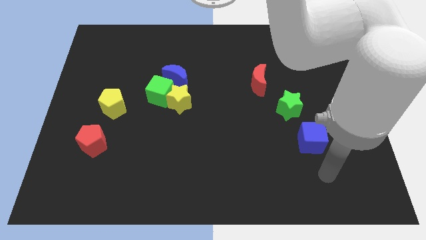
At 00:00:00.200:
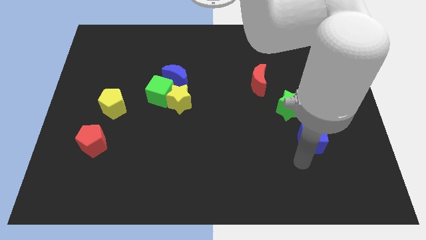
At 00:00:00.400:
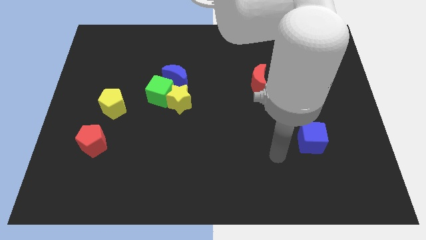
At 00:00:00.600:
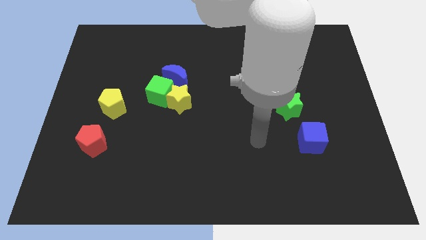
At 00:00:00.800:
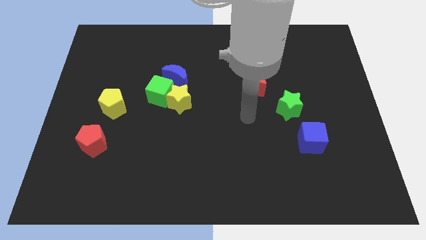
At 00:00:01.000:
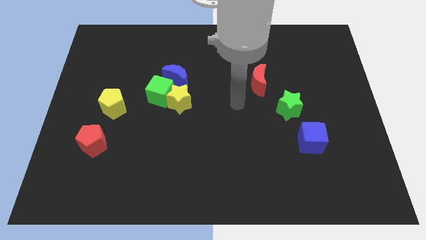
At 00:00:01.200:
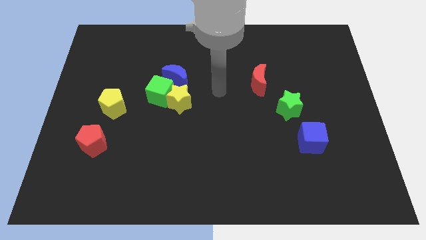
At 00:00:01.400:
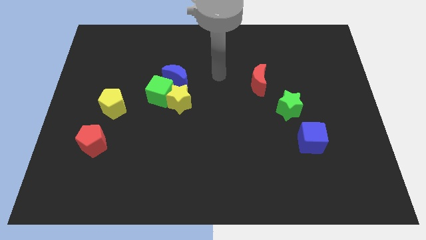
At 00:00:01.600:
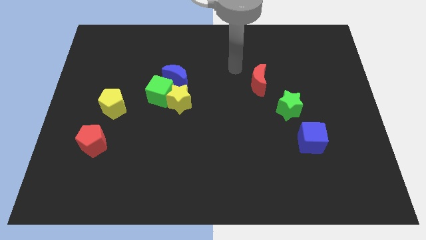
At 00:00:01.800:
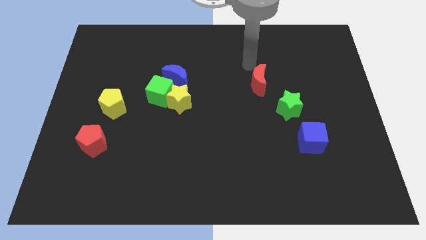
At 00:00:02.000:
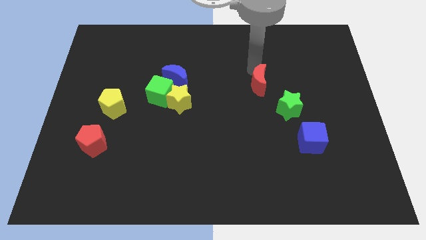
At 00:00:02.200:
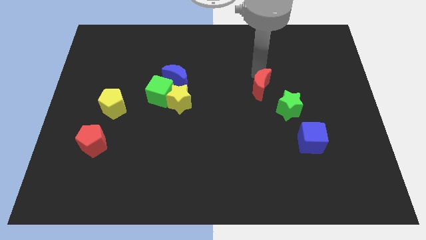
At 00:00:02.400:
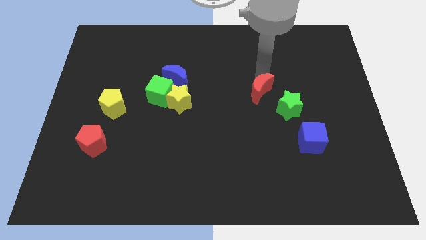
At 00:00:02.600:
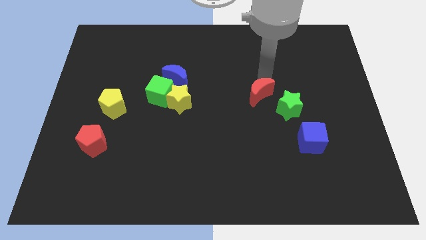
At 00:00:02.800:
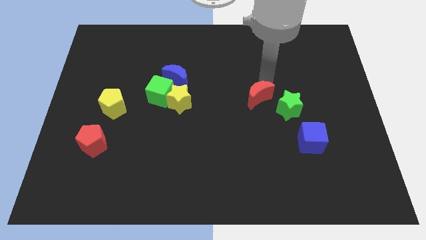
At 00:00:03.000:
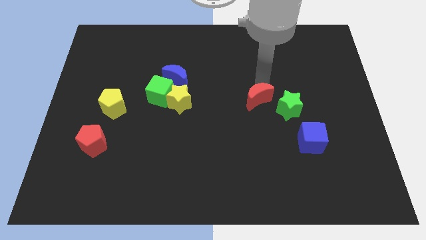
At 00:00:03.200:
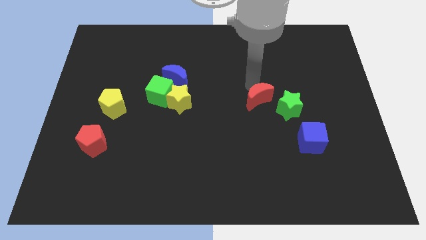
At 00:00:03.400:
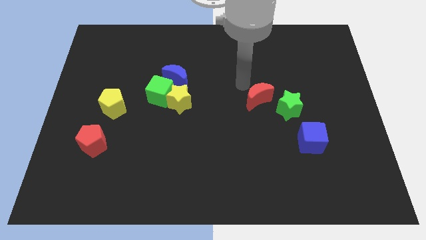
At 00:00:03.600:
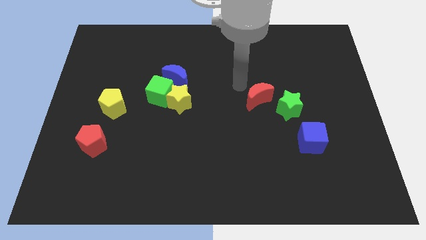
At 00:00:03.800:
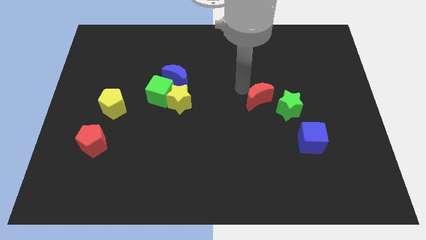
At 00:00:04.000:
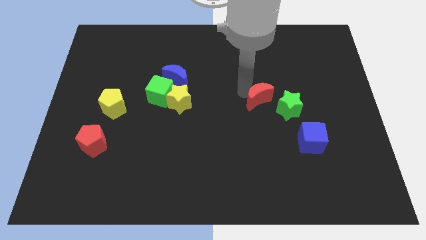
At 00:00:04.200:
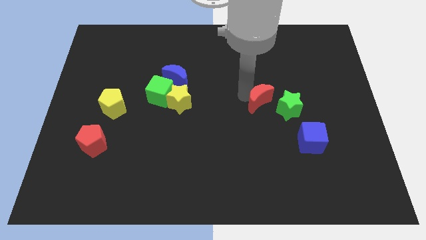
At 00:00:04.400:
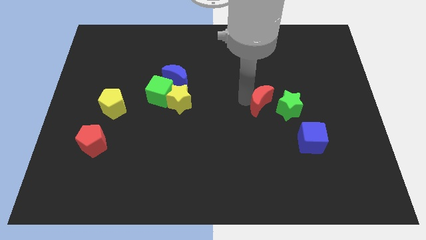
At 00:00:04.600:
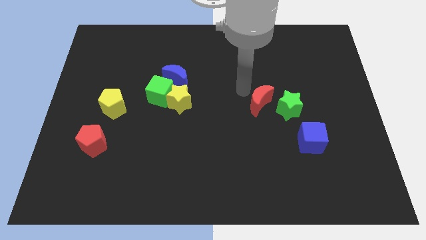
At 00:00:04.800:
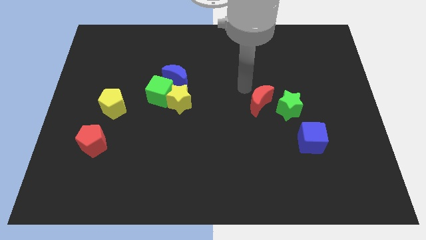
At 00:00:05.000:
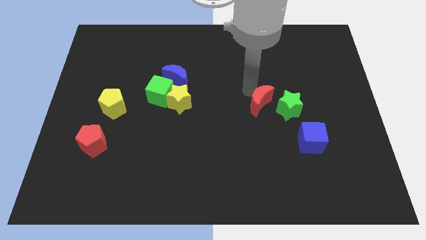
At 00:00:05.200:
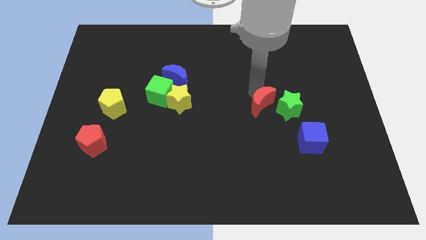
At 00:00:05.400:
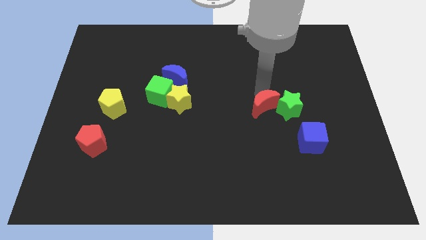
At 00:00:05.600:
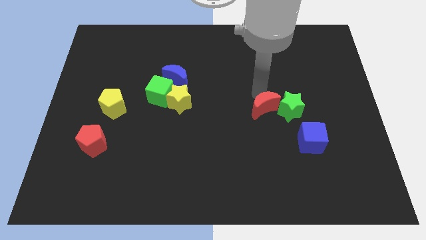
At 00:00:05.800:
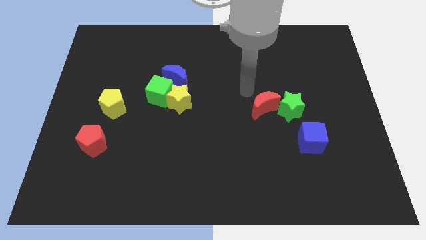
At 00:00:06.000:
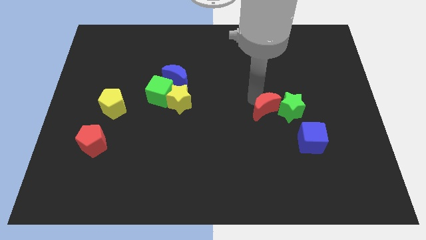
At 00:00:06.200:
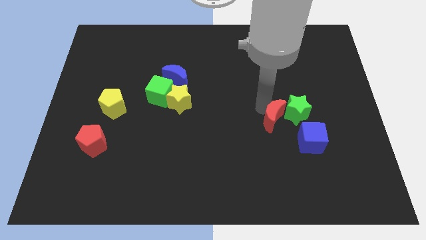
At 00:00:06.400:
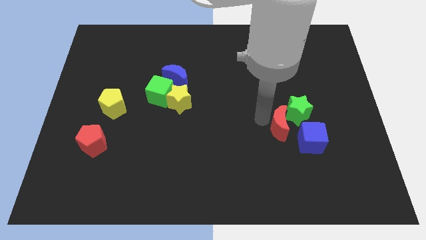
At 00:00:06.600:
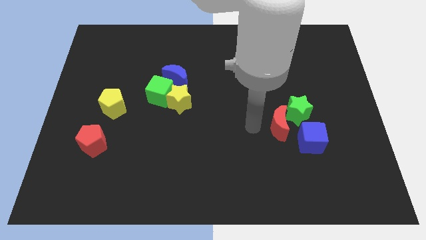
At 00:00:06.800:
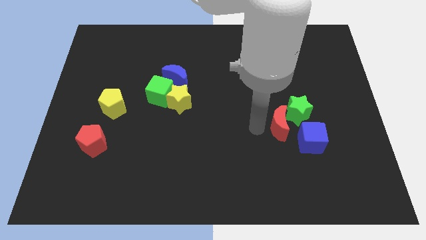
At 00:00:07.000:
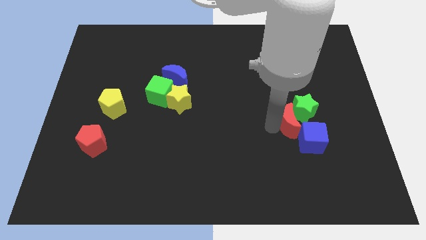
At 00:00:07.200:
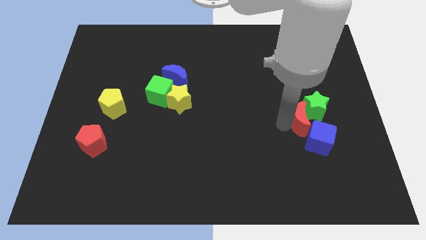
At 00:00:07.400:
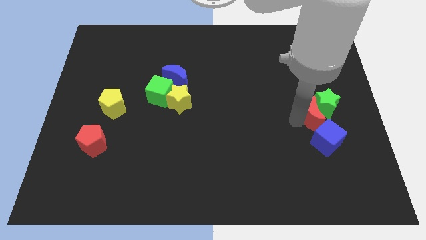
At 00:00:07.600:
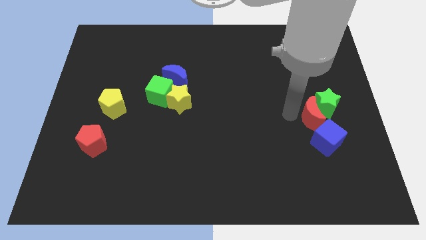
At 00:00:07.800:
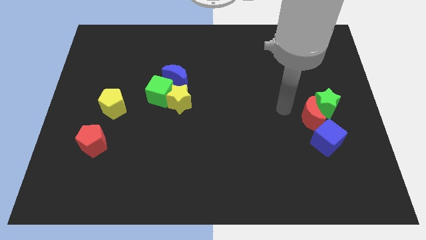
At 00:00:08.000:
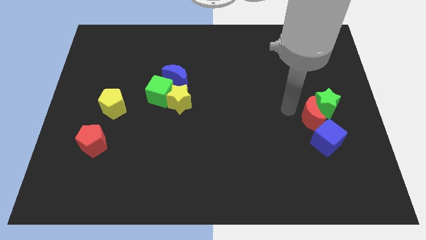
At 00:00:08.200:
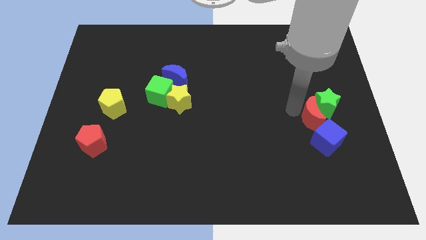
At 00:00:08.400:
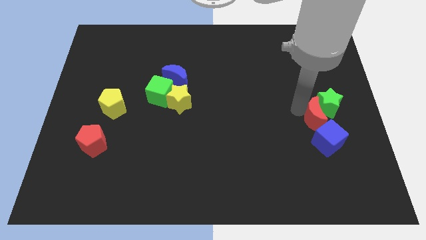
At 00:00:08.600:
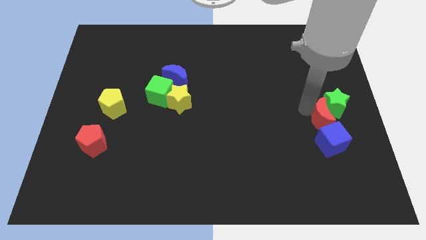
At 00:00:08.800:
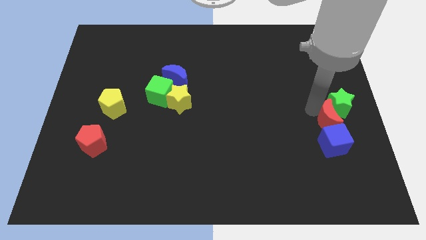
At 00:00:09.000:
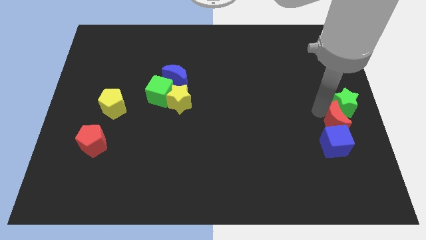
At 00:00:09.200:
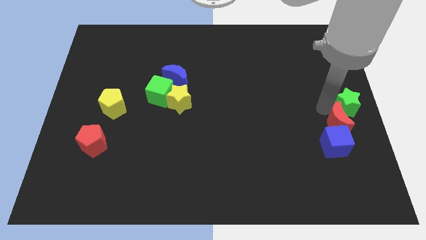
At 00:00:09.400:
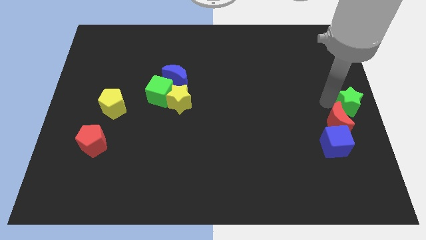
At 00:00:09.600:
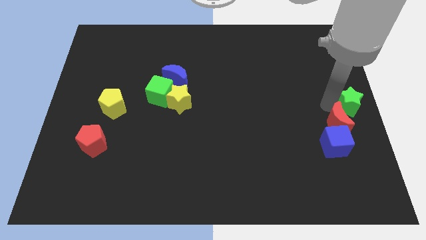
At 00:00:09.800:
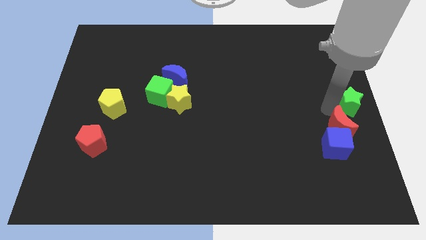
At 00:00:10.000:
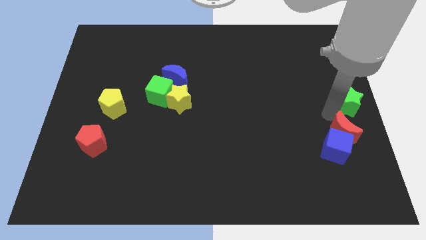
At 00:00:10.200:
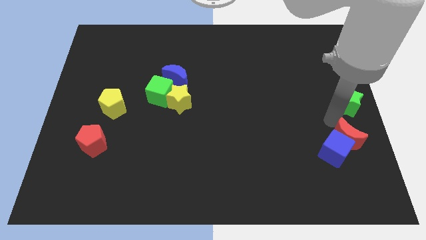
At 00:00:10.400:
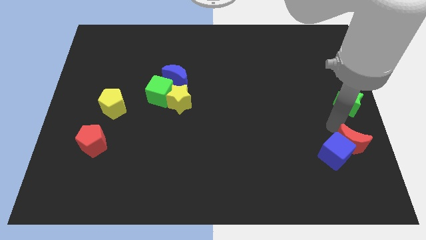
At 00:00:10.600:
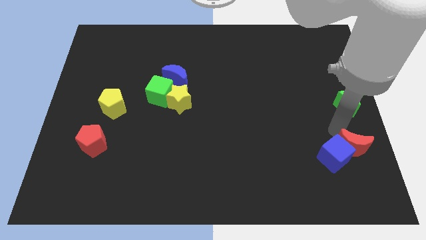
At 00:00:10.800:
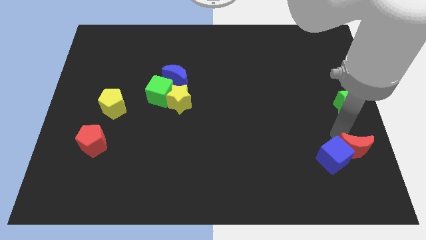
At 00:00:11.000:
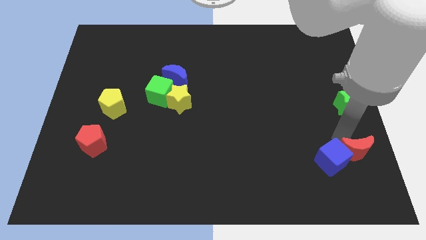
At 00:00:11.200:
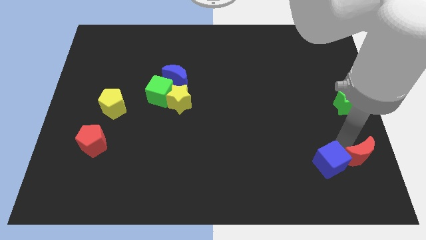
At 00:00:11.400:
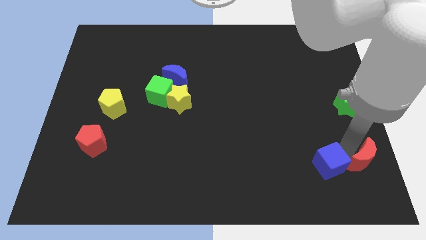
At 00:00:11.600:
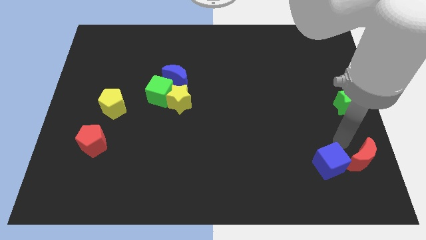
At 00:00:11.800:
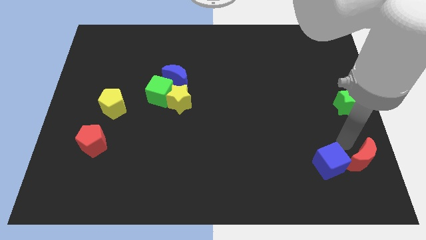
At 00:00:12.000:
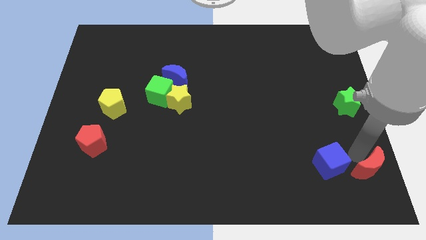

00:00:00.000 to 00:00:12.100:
put the red moon to the lower right corner
